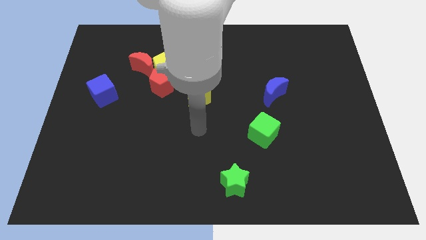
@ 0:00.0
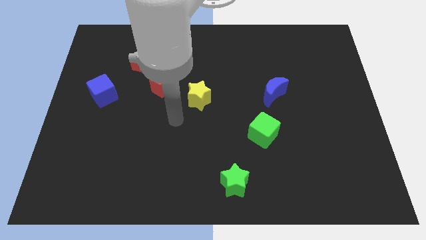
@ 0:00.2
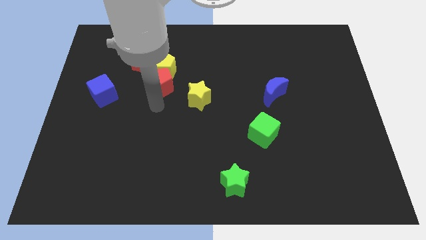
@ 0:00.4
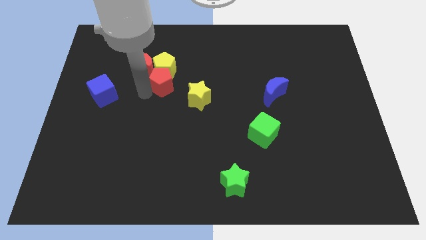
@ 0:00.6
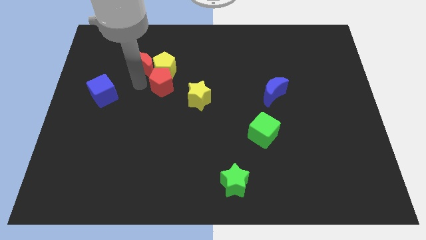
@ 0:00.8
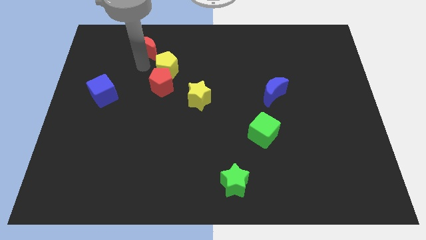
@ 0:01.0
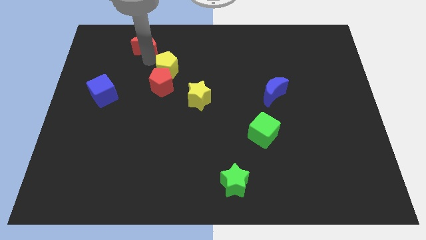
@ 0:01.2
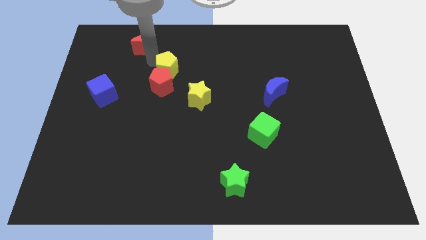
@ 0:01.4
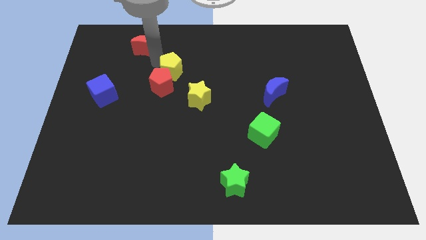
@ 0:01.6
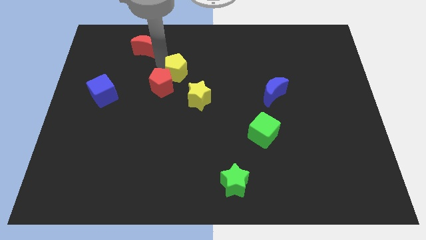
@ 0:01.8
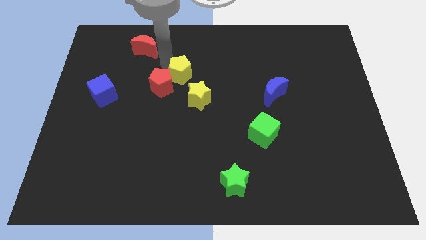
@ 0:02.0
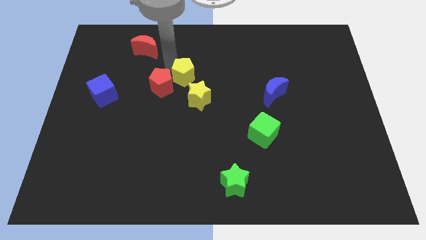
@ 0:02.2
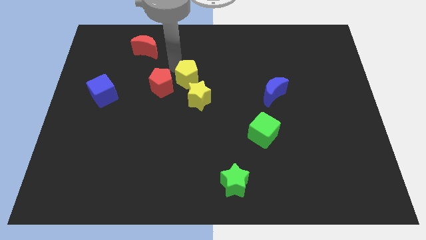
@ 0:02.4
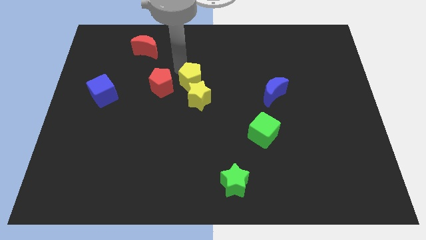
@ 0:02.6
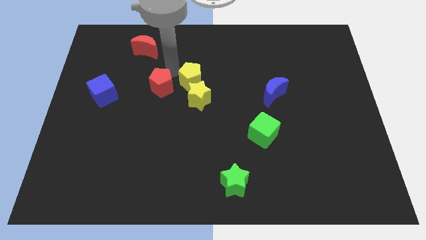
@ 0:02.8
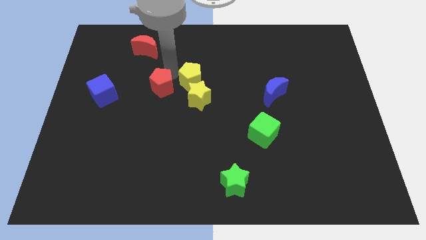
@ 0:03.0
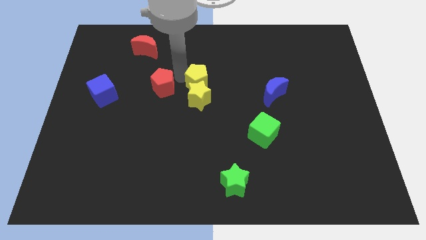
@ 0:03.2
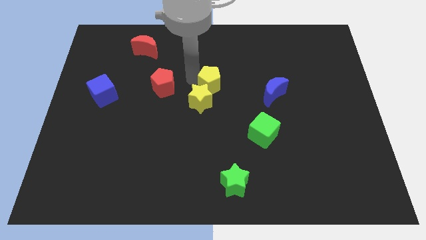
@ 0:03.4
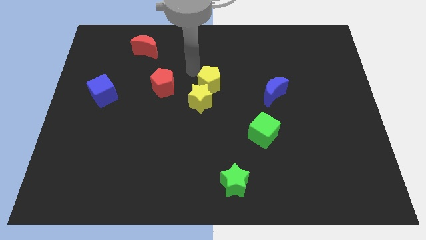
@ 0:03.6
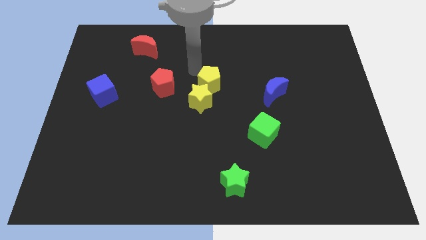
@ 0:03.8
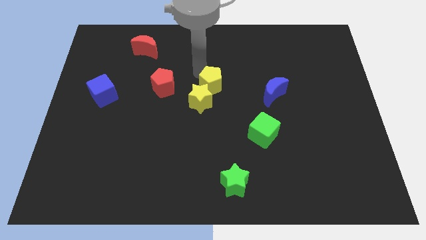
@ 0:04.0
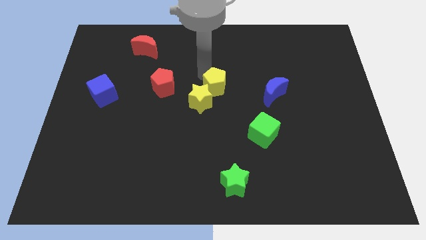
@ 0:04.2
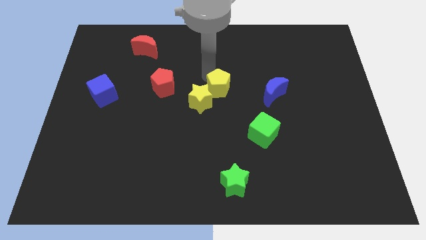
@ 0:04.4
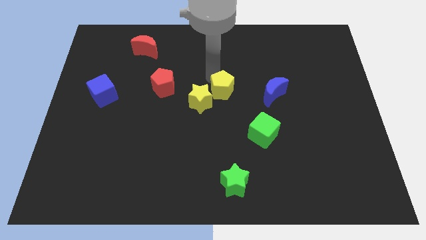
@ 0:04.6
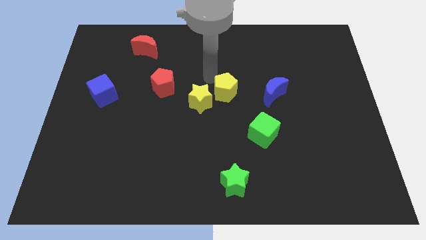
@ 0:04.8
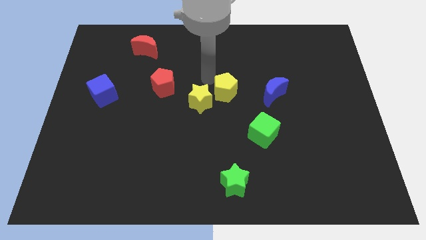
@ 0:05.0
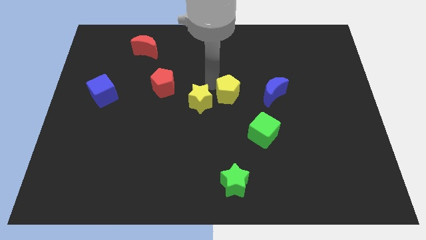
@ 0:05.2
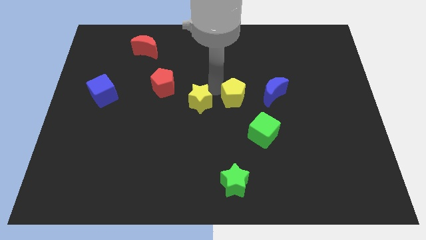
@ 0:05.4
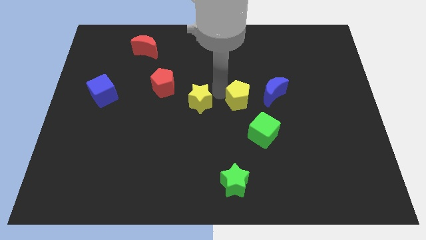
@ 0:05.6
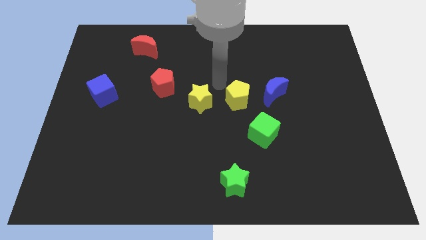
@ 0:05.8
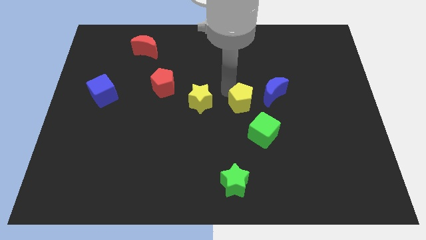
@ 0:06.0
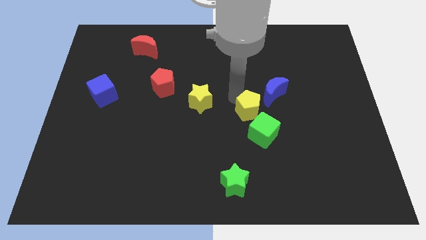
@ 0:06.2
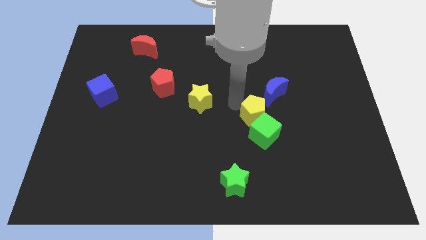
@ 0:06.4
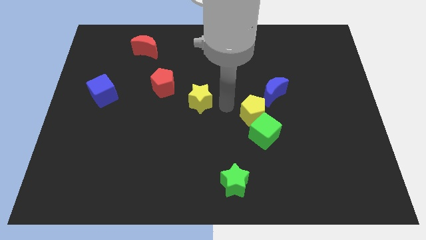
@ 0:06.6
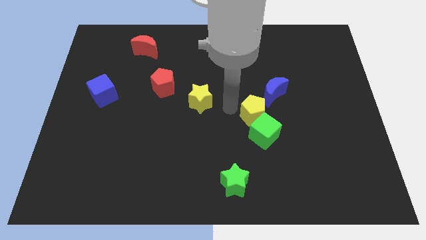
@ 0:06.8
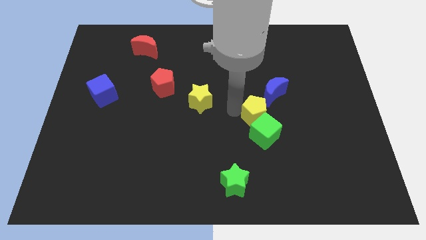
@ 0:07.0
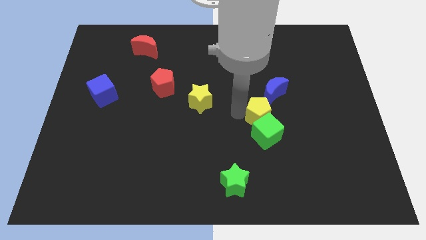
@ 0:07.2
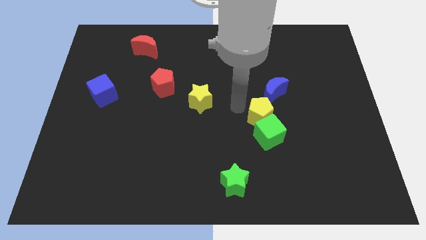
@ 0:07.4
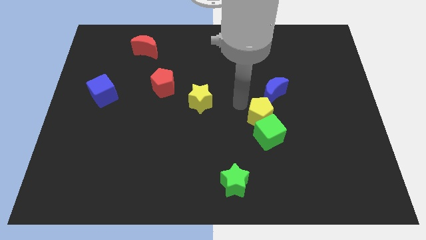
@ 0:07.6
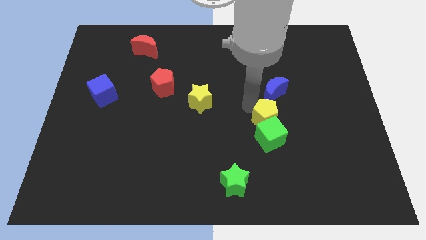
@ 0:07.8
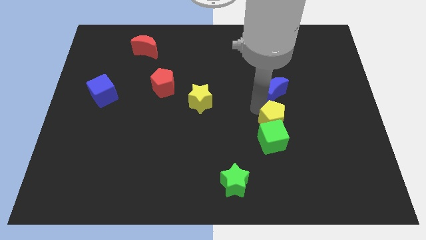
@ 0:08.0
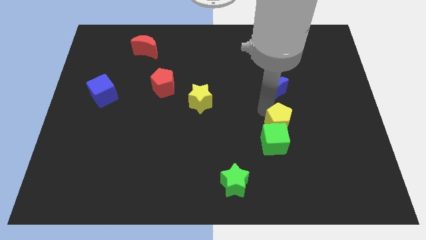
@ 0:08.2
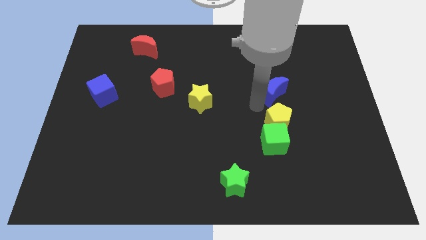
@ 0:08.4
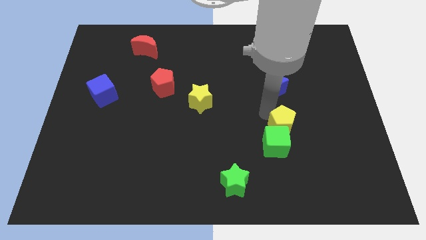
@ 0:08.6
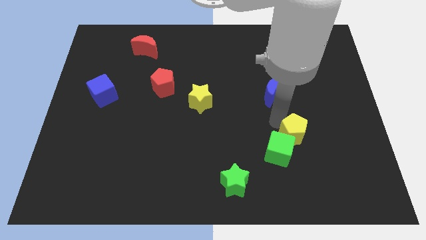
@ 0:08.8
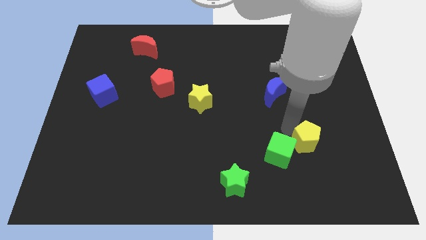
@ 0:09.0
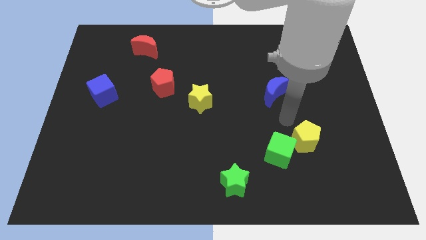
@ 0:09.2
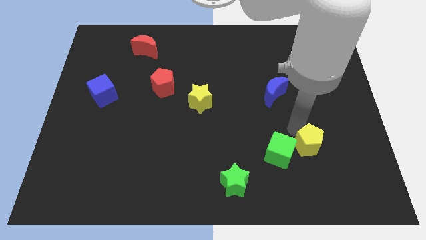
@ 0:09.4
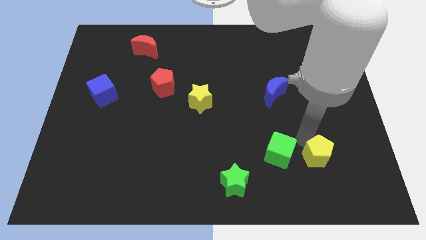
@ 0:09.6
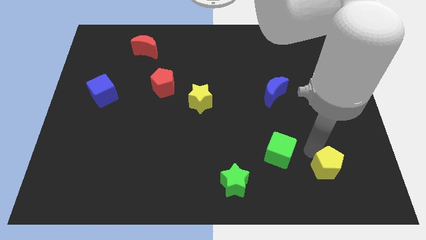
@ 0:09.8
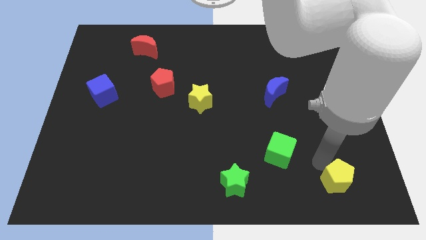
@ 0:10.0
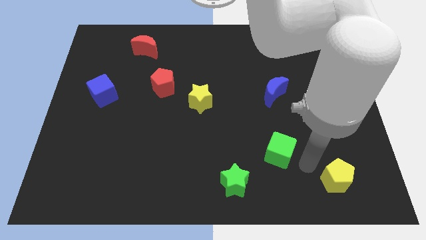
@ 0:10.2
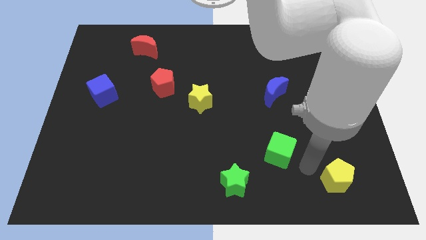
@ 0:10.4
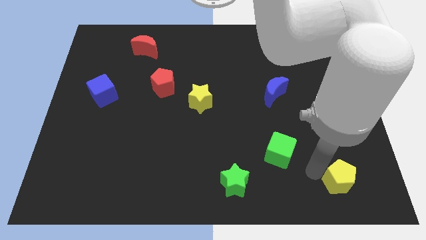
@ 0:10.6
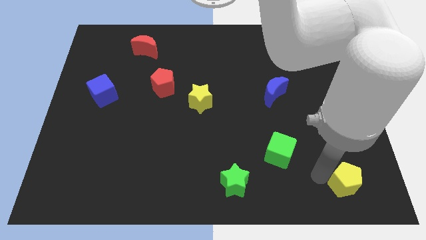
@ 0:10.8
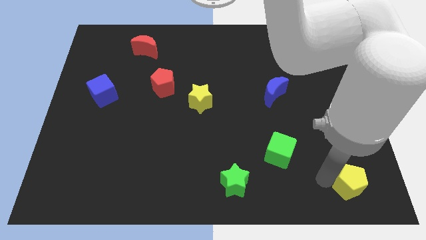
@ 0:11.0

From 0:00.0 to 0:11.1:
push the yellow pentagon to the bottom right
